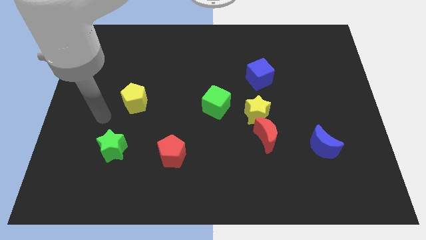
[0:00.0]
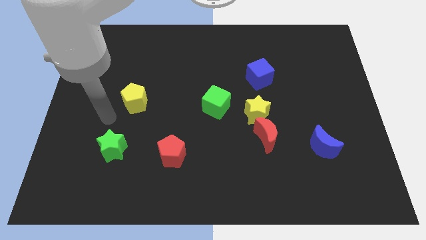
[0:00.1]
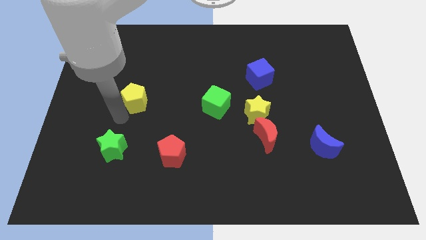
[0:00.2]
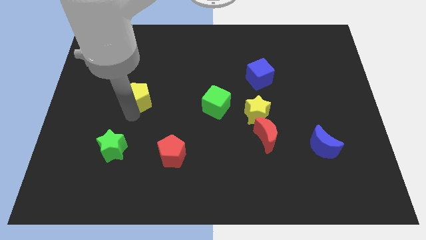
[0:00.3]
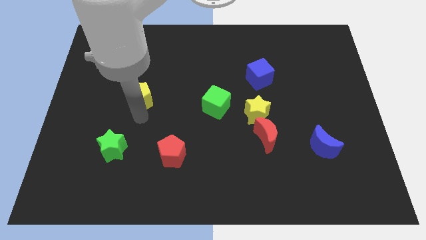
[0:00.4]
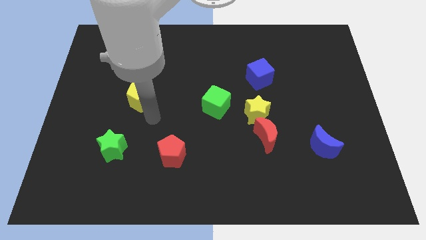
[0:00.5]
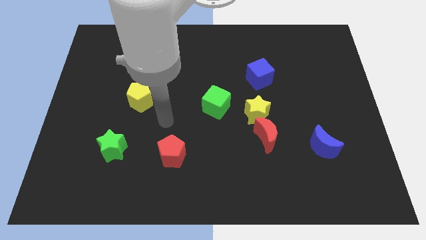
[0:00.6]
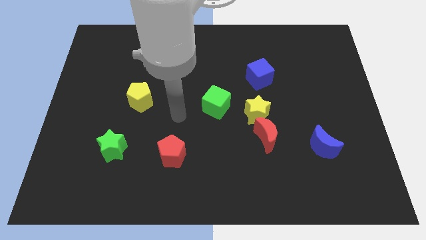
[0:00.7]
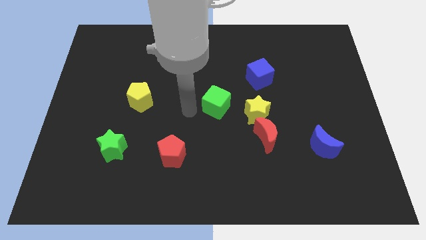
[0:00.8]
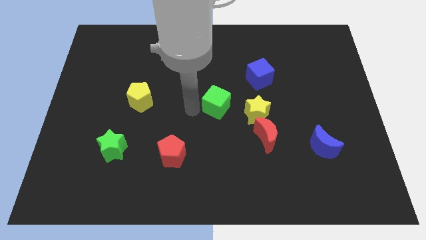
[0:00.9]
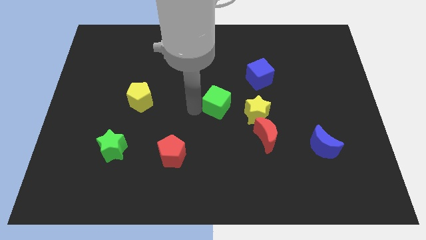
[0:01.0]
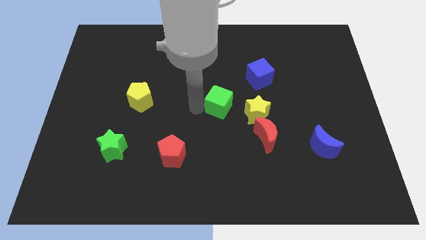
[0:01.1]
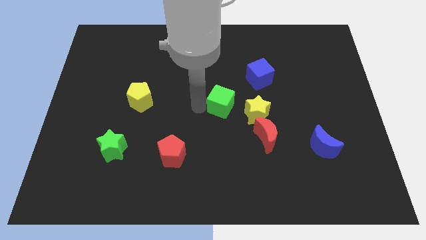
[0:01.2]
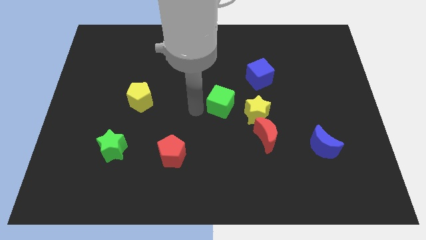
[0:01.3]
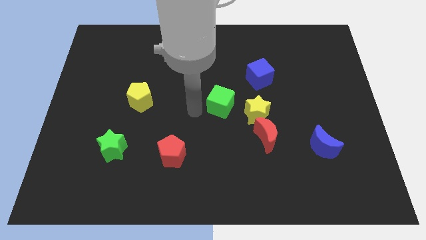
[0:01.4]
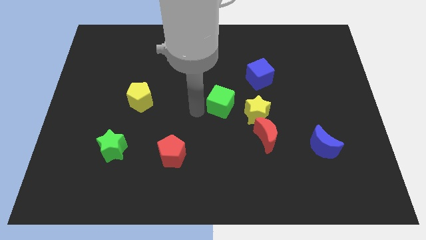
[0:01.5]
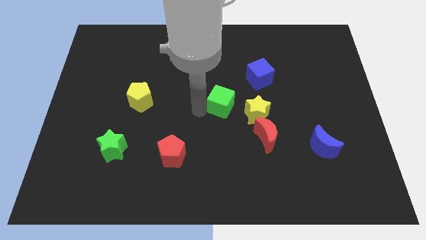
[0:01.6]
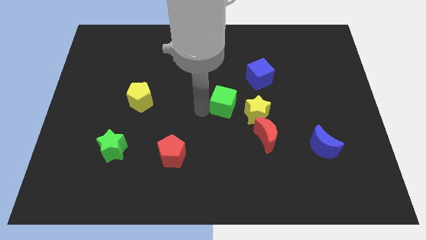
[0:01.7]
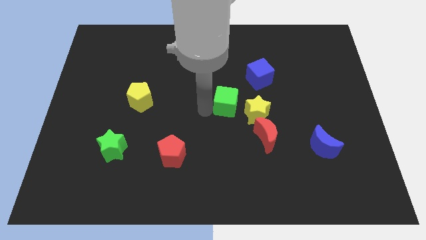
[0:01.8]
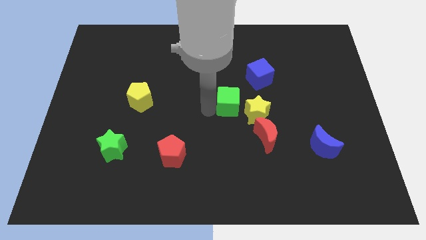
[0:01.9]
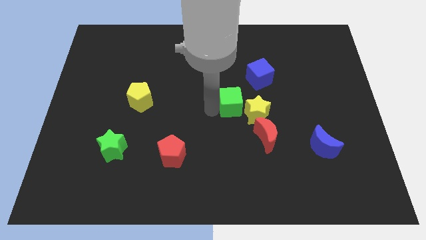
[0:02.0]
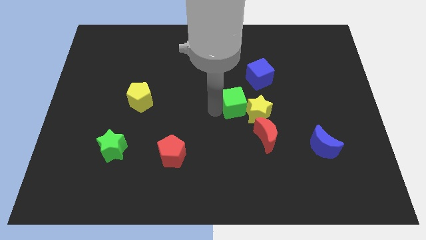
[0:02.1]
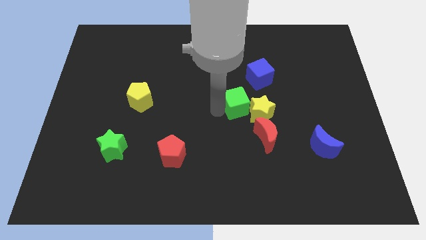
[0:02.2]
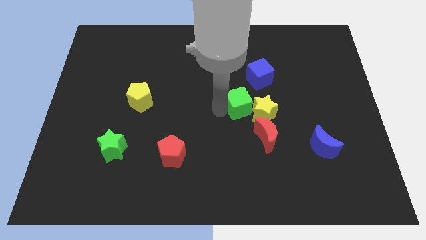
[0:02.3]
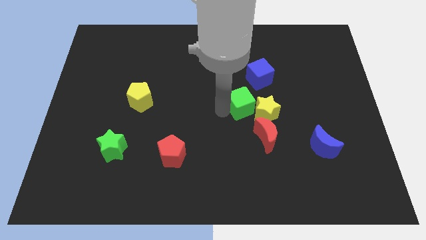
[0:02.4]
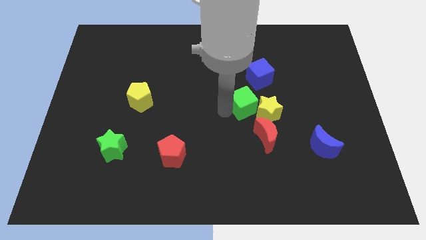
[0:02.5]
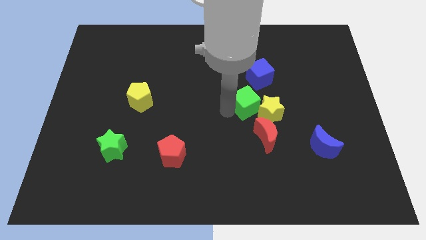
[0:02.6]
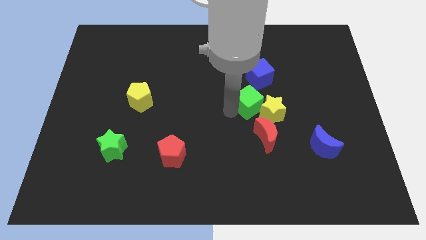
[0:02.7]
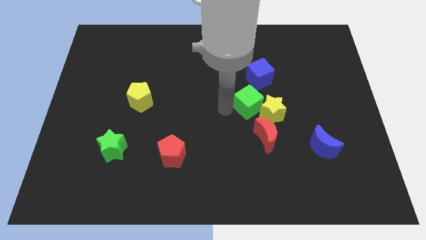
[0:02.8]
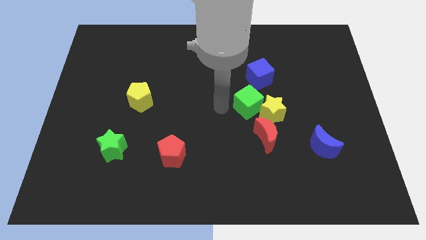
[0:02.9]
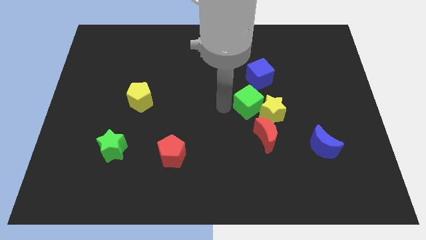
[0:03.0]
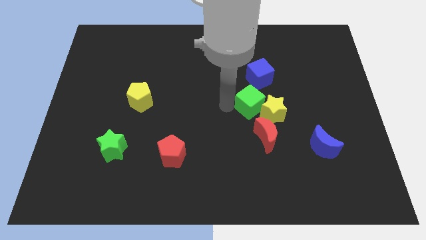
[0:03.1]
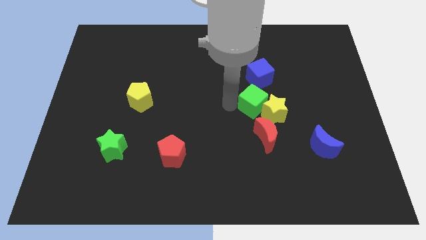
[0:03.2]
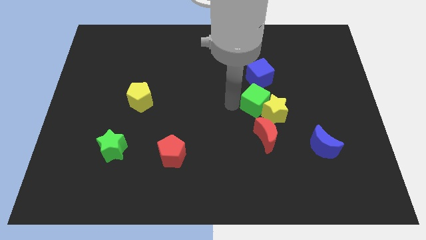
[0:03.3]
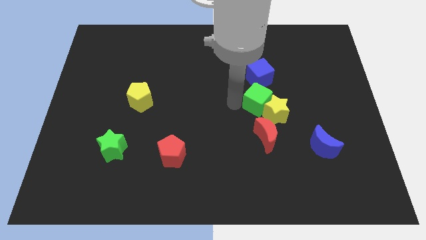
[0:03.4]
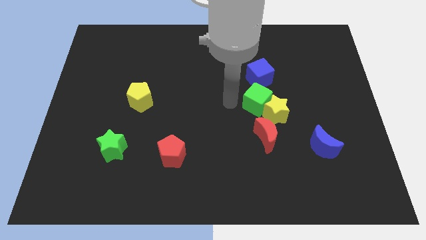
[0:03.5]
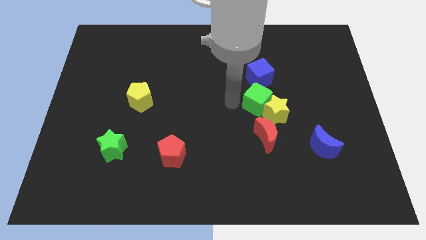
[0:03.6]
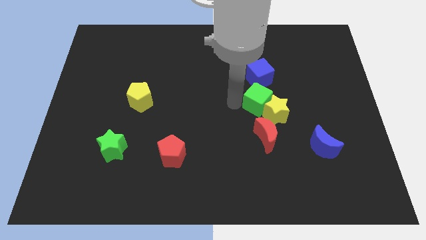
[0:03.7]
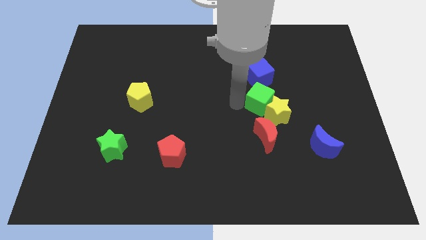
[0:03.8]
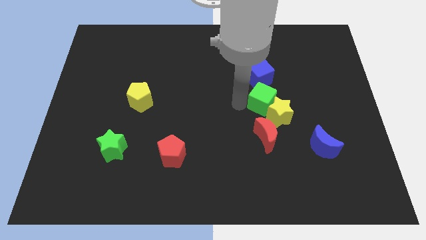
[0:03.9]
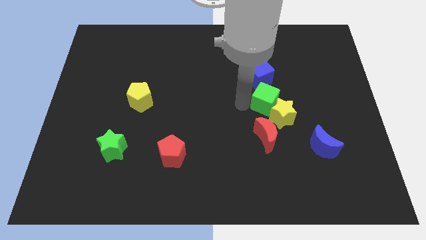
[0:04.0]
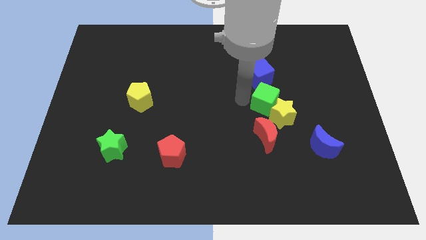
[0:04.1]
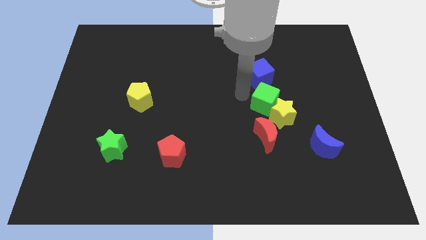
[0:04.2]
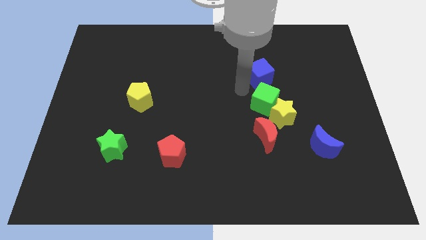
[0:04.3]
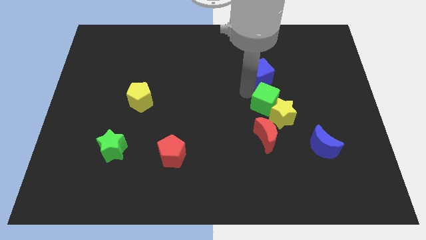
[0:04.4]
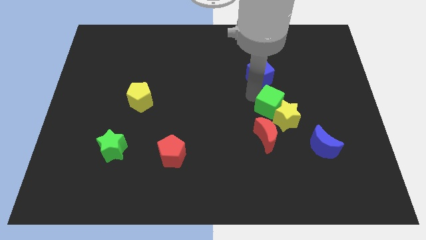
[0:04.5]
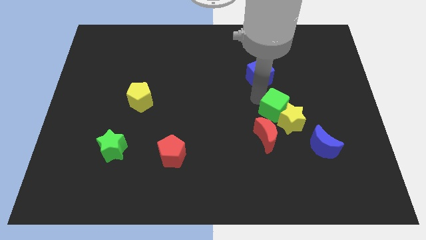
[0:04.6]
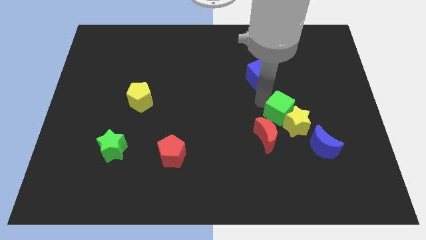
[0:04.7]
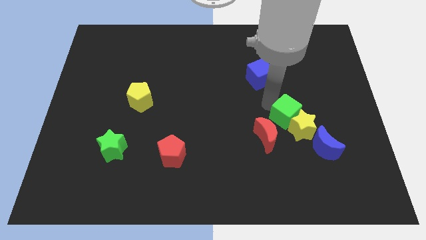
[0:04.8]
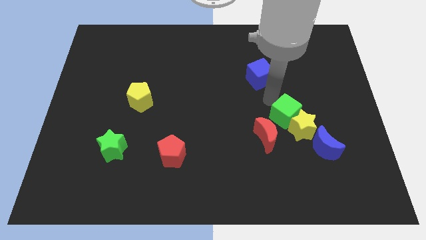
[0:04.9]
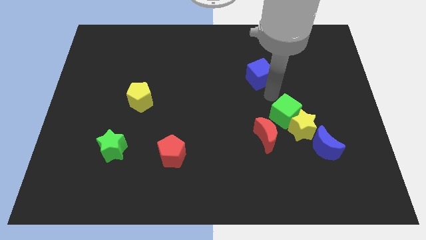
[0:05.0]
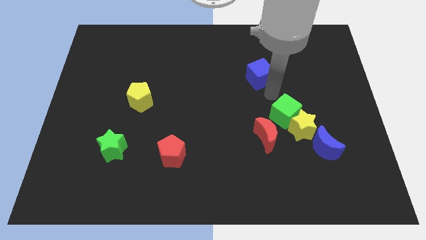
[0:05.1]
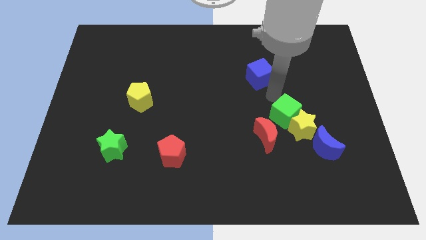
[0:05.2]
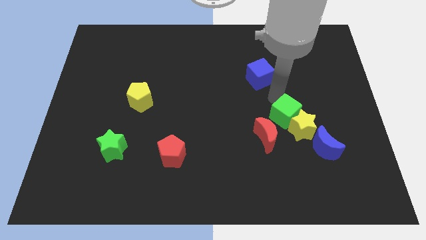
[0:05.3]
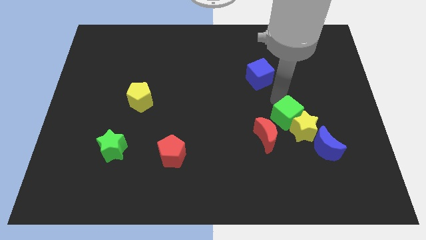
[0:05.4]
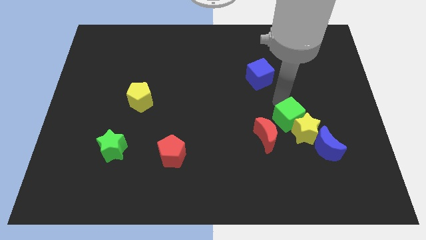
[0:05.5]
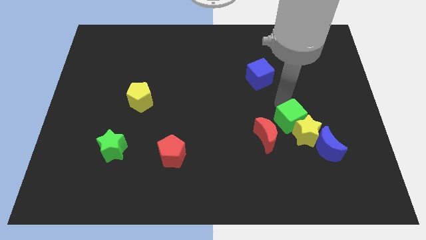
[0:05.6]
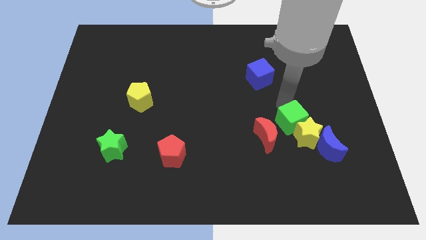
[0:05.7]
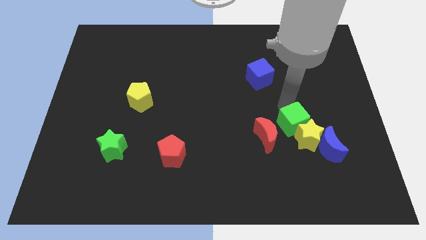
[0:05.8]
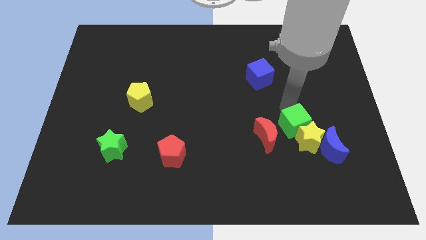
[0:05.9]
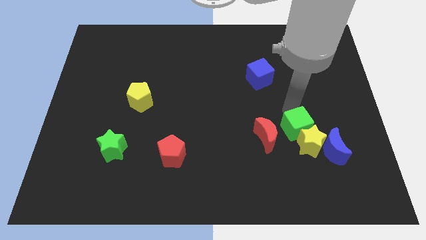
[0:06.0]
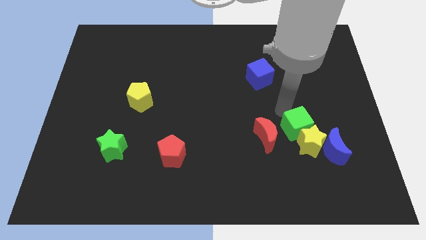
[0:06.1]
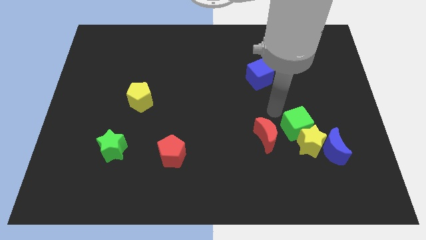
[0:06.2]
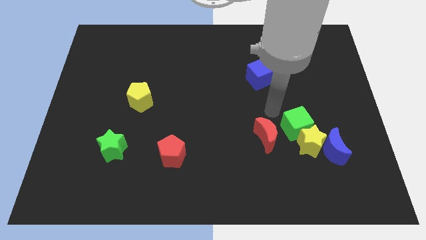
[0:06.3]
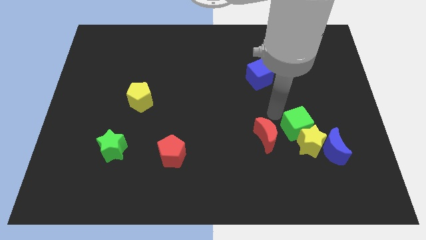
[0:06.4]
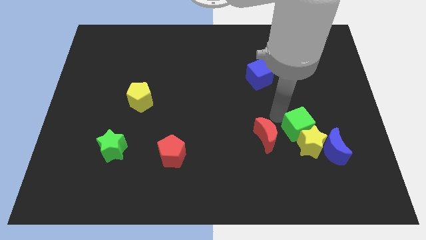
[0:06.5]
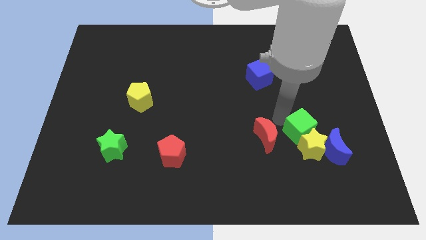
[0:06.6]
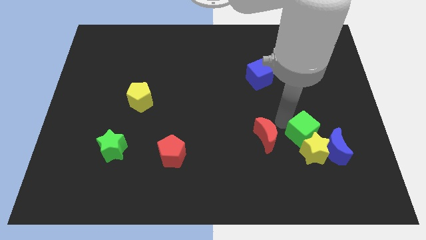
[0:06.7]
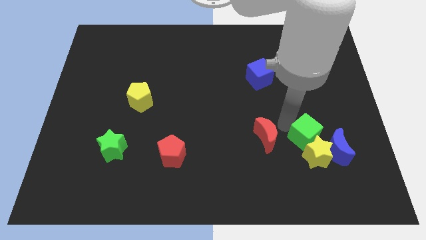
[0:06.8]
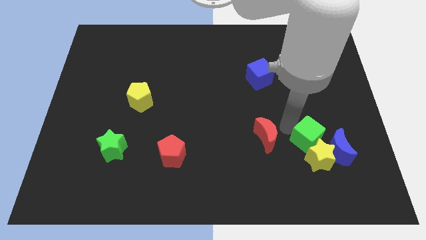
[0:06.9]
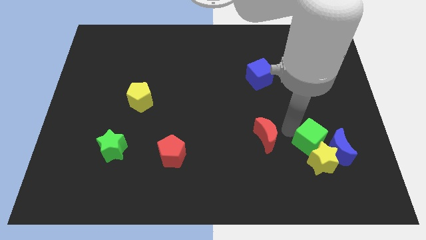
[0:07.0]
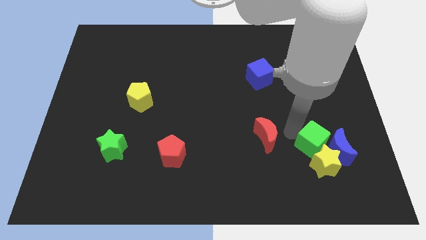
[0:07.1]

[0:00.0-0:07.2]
move the green cube to the blue moon
